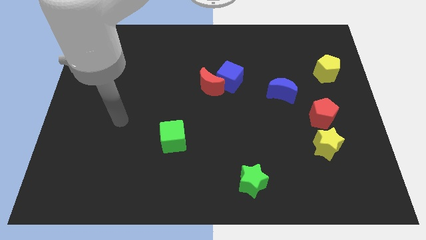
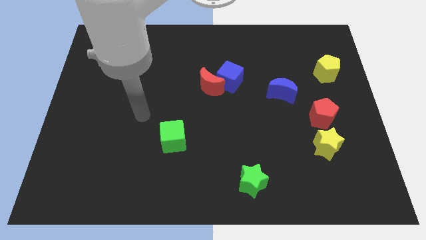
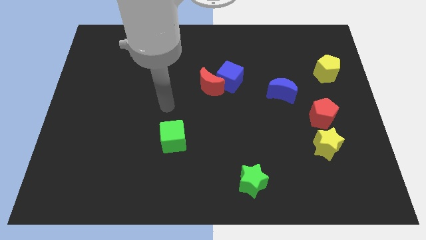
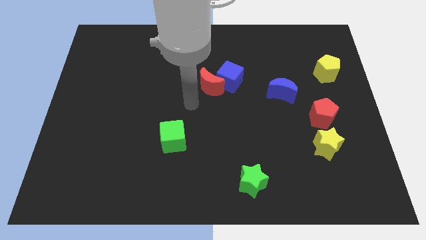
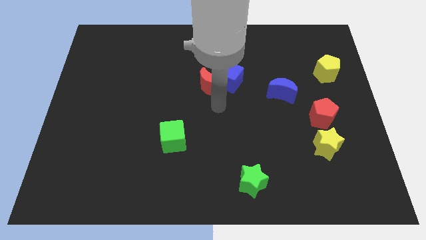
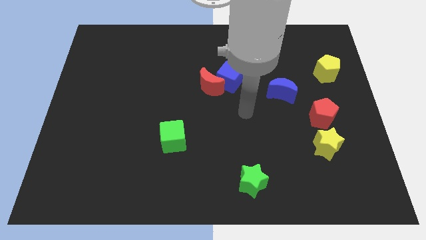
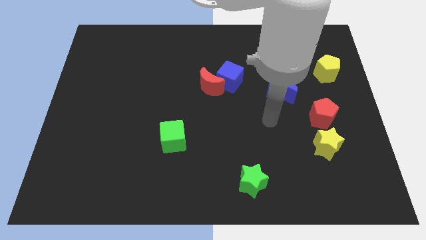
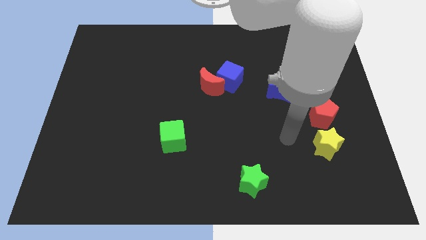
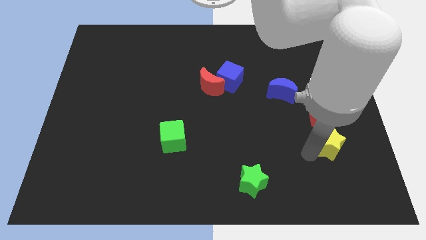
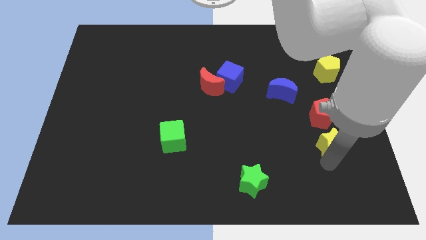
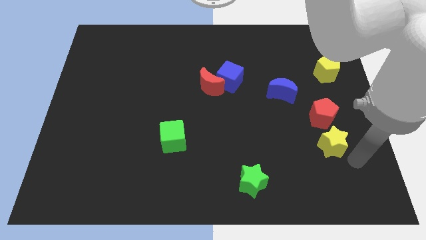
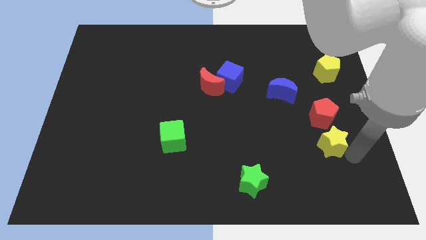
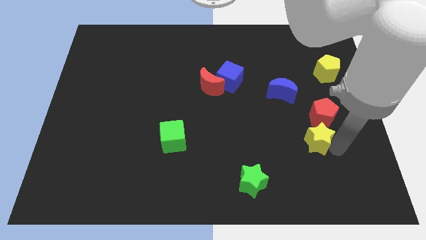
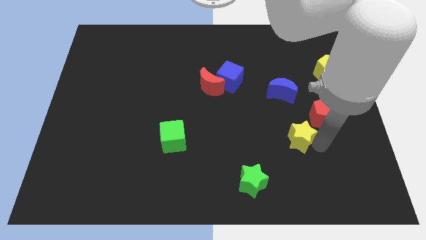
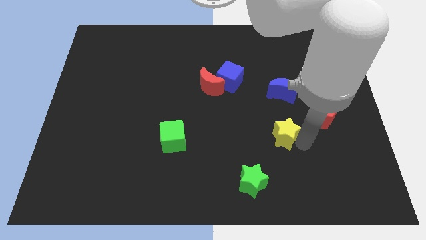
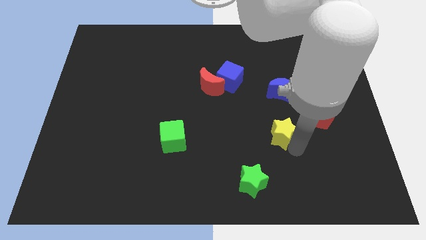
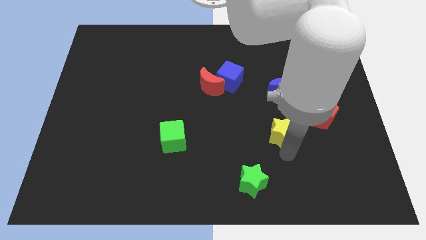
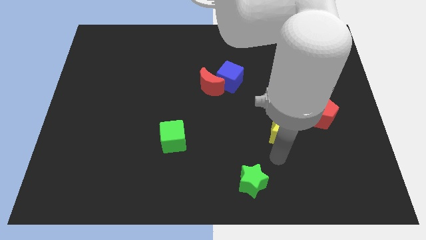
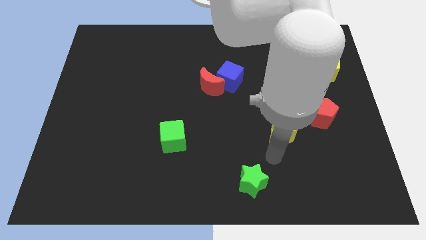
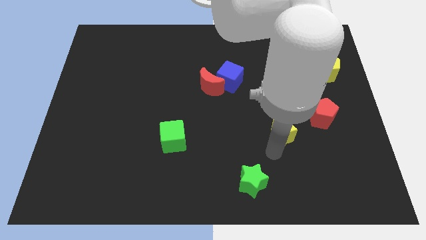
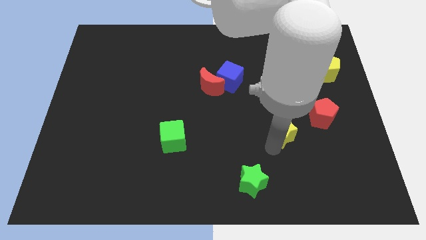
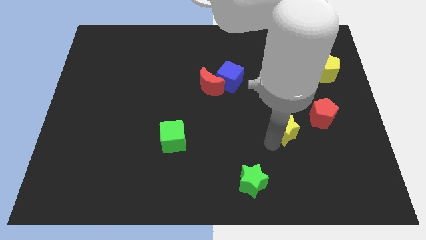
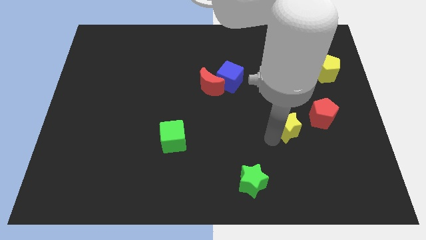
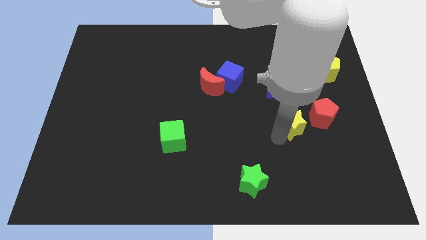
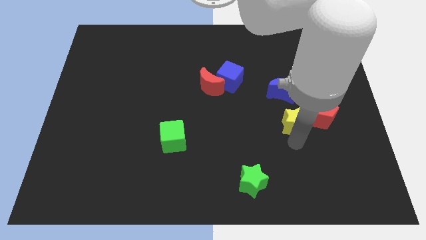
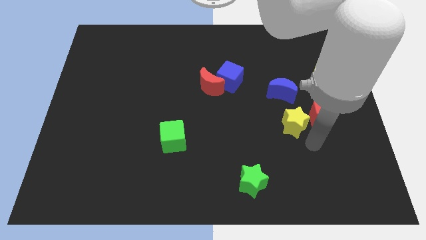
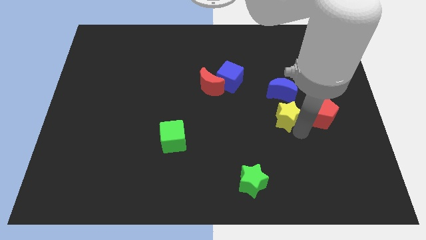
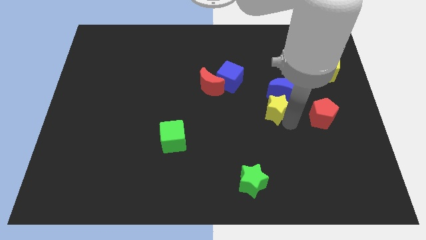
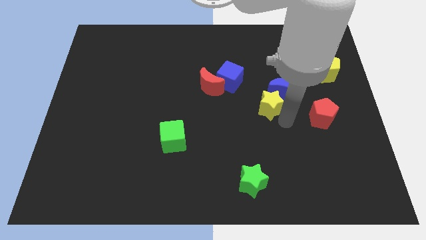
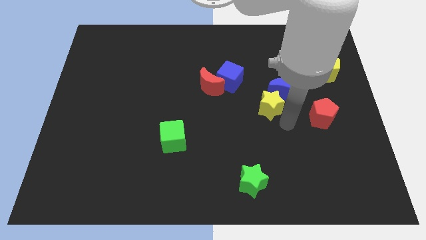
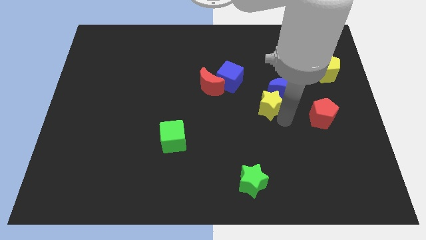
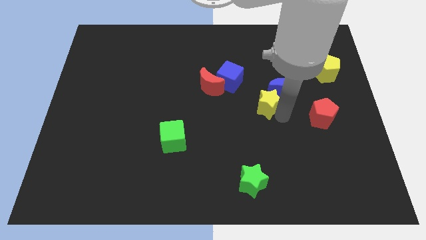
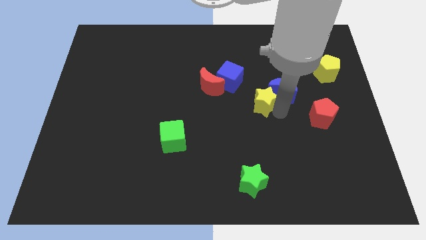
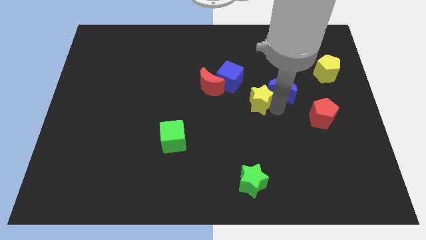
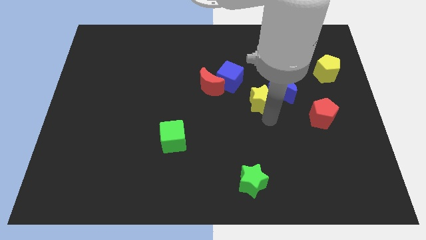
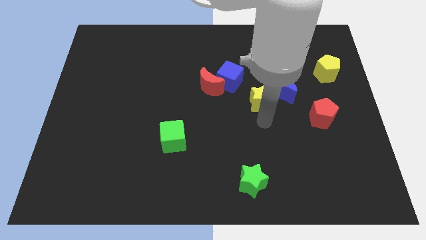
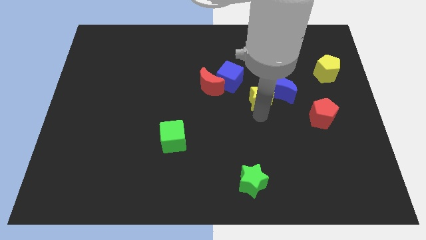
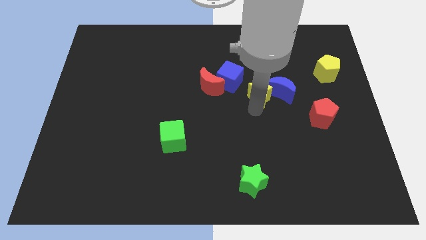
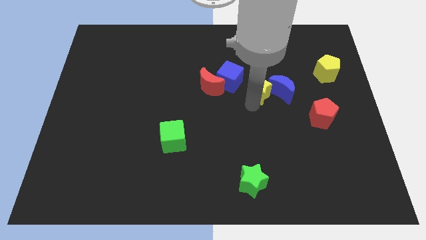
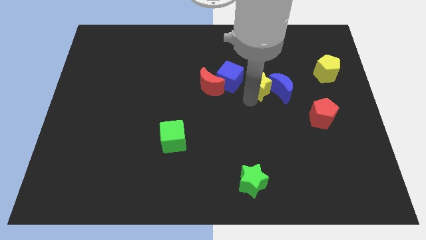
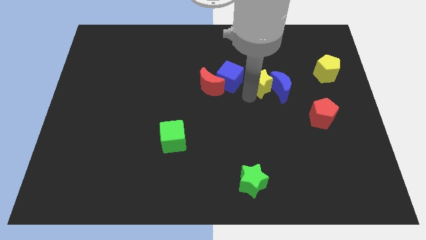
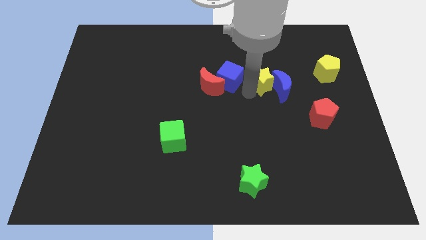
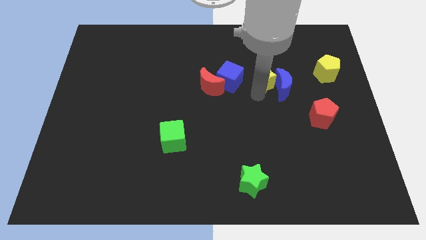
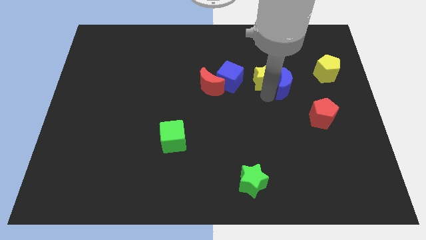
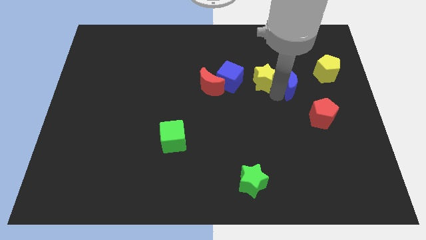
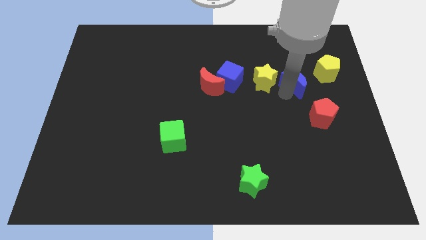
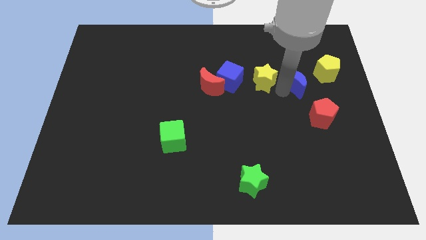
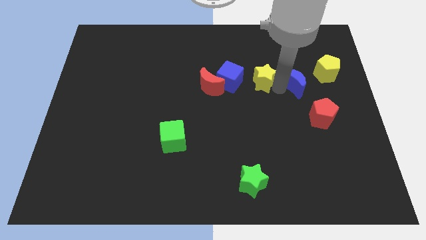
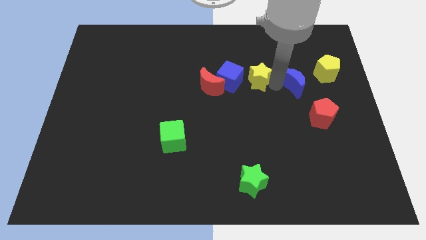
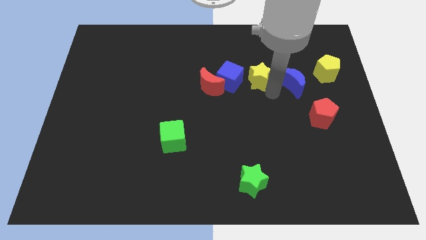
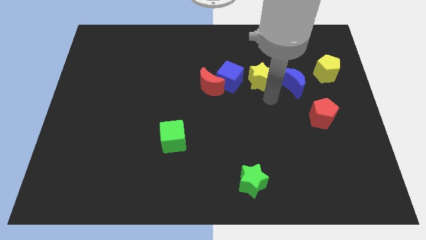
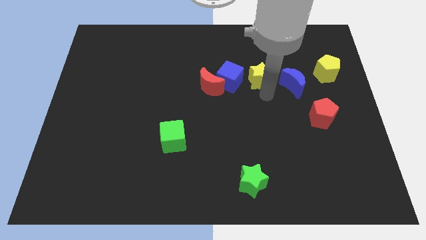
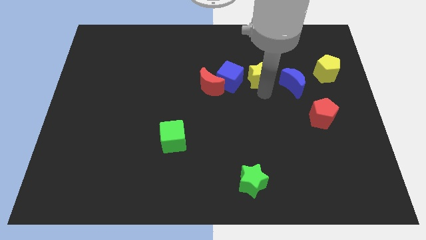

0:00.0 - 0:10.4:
push the yellow star to the top right of the blue cube

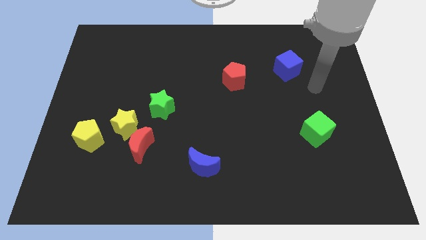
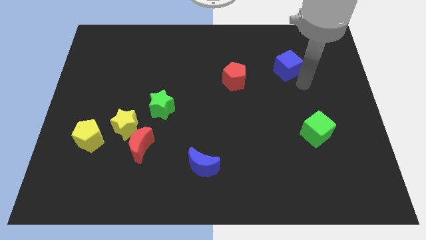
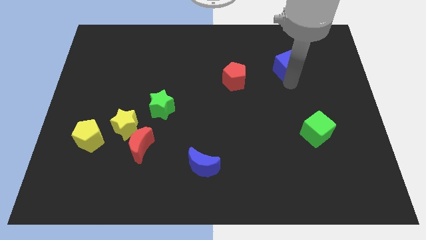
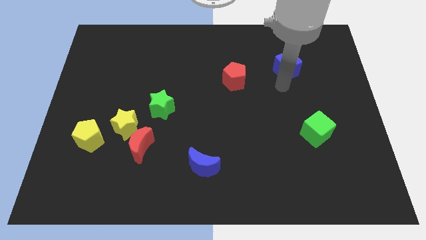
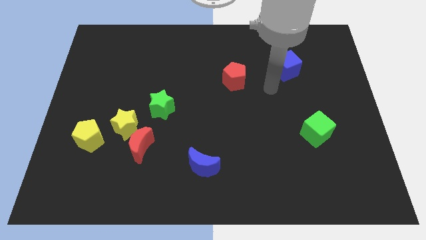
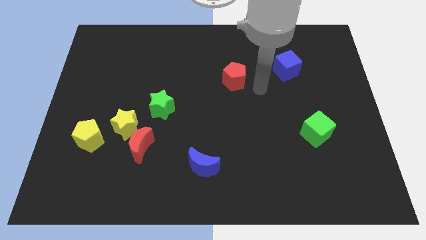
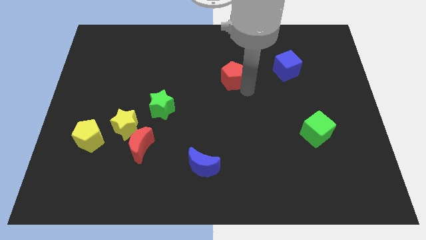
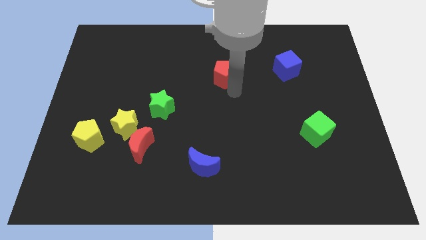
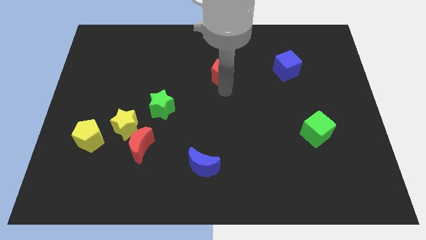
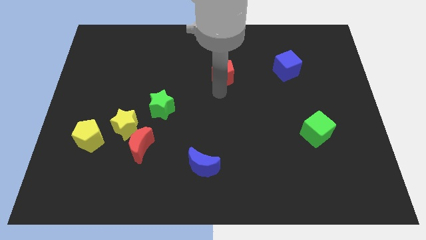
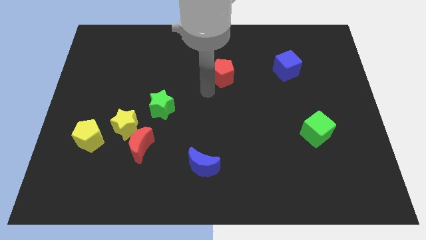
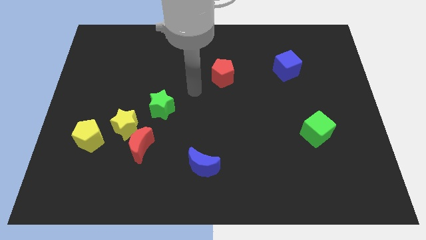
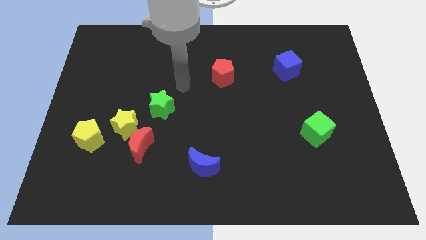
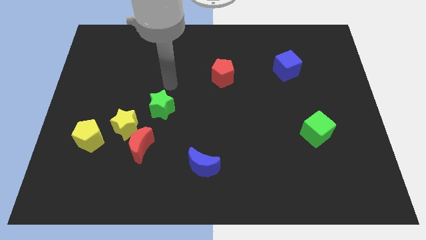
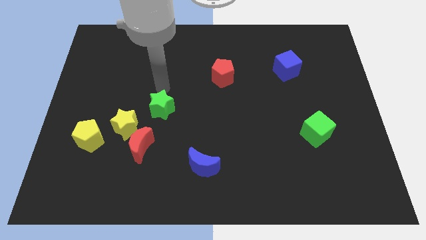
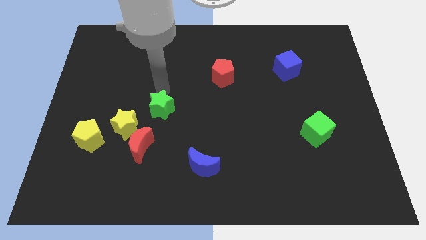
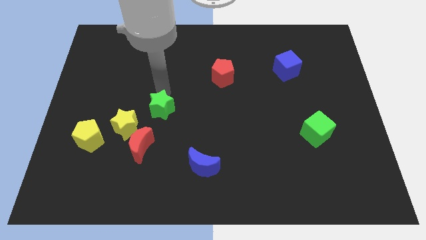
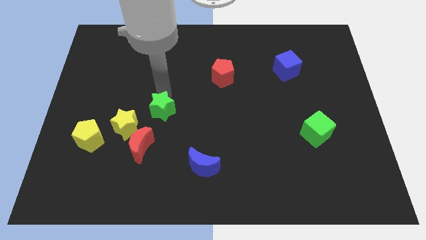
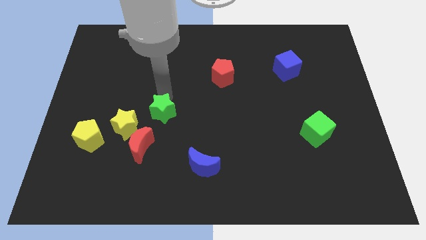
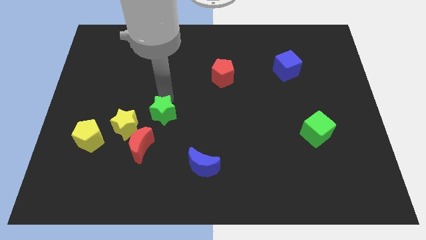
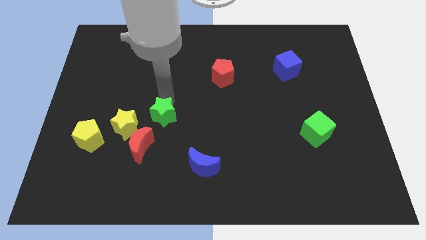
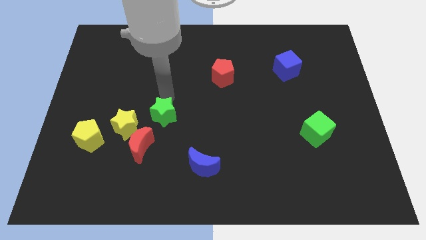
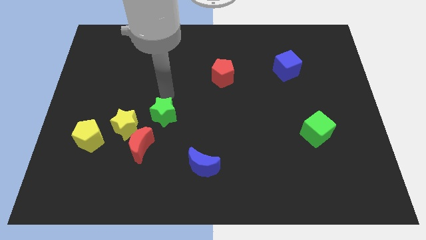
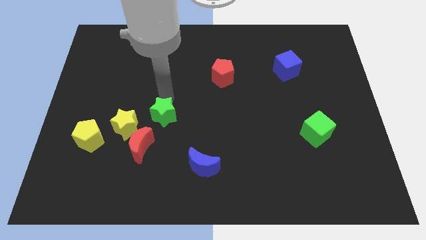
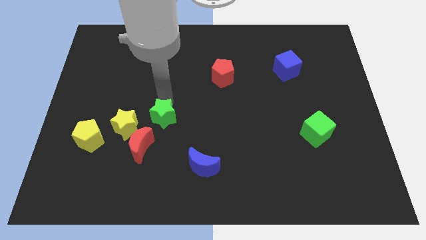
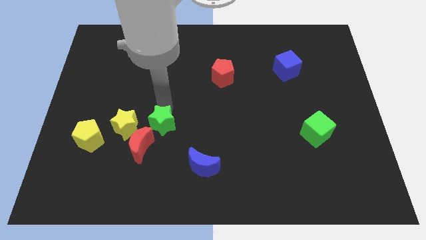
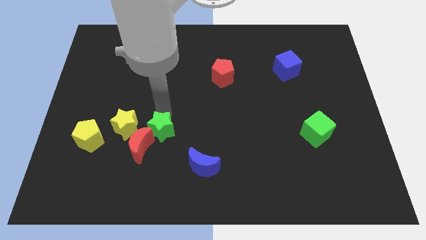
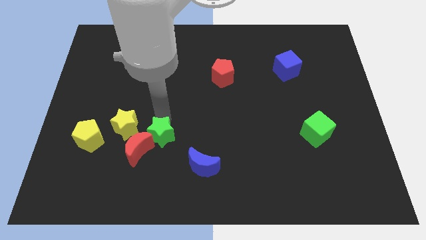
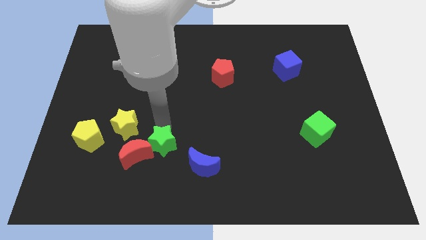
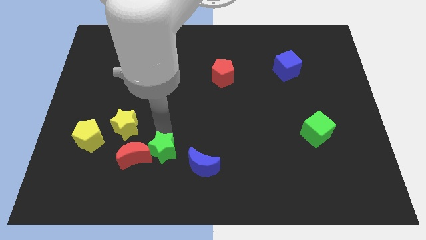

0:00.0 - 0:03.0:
move the green star left of the blue moon

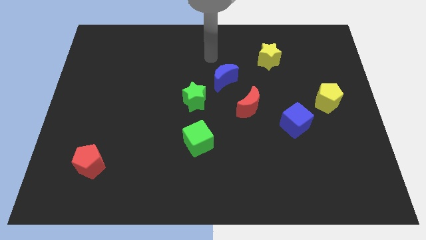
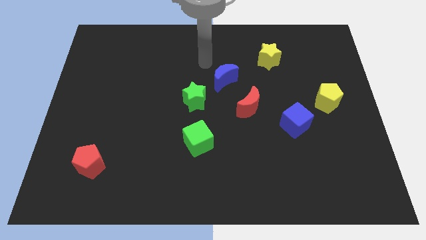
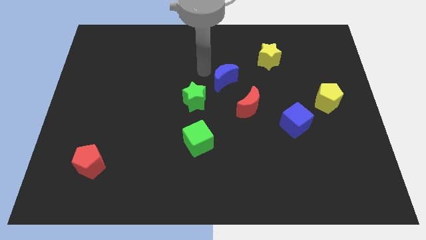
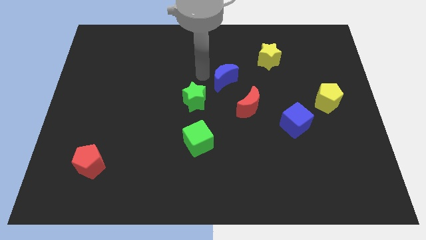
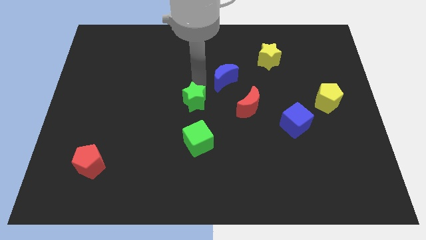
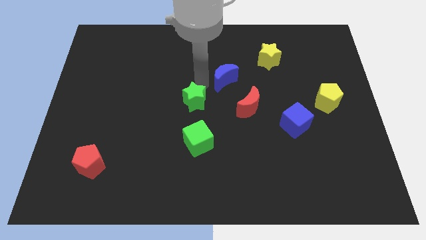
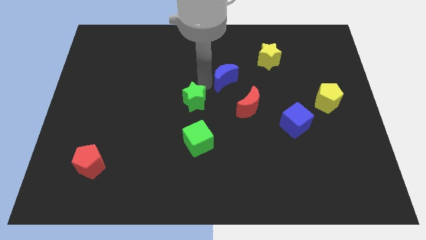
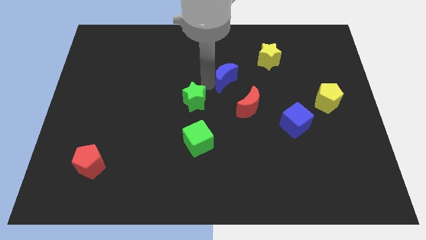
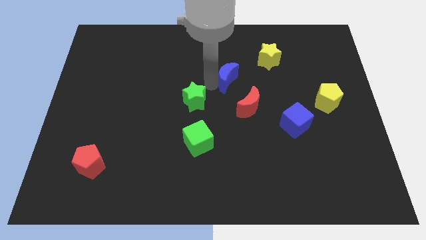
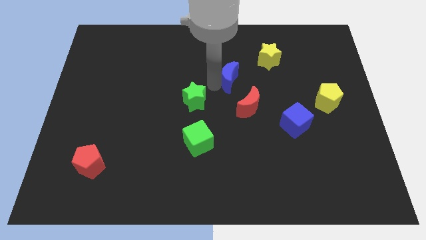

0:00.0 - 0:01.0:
put the blue moon to the bottom left of the yellow star
